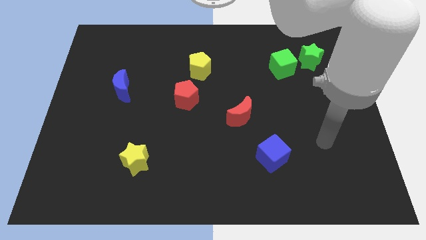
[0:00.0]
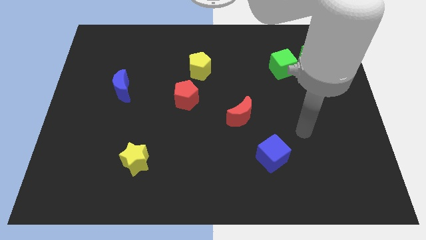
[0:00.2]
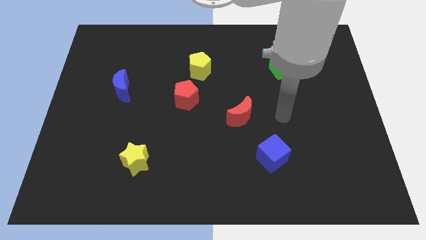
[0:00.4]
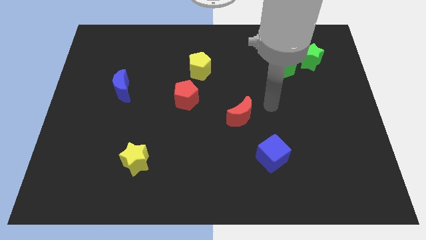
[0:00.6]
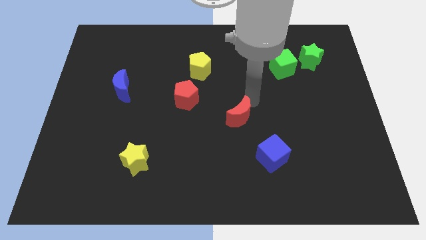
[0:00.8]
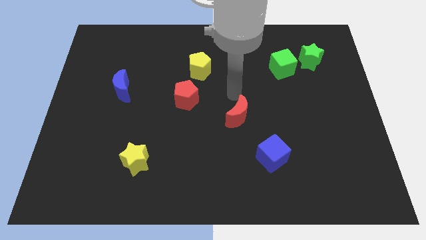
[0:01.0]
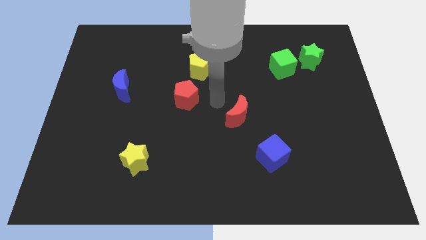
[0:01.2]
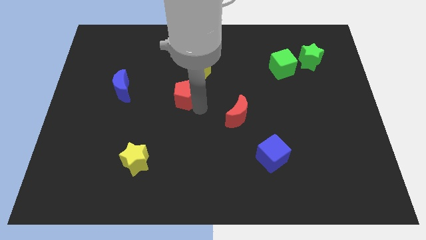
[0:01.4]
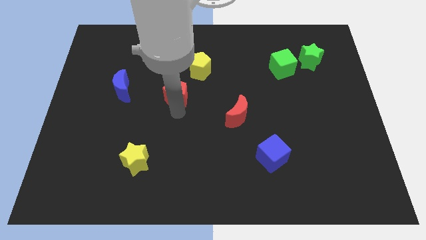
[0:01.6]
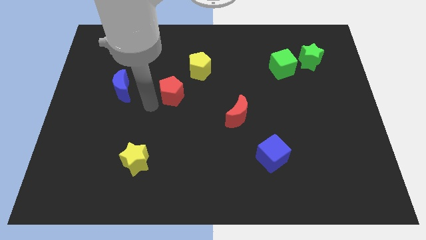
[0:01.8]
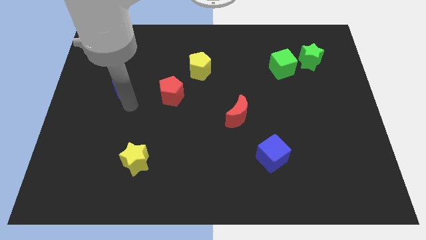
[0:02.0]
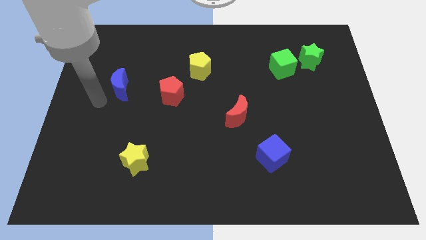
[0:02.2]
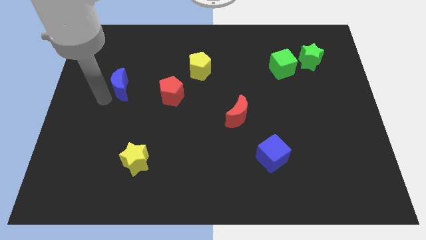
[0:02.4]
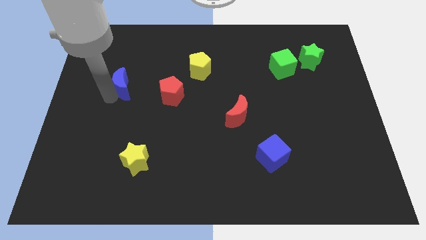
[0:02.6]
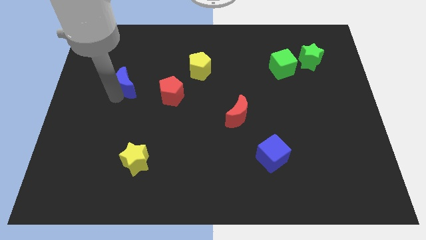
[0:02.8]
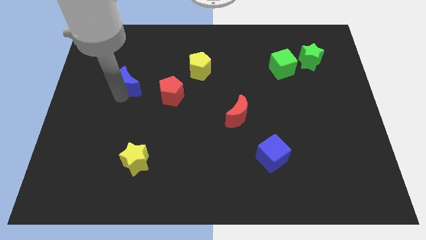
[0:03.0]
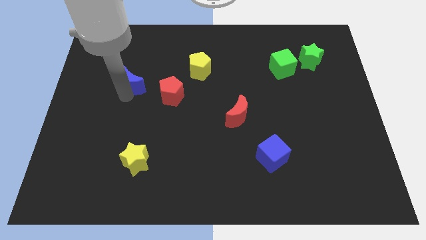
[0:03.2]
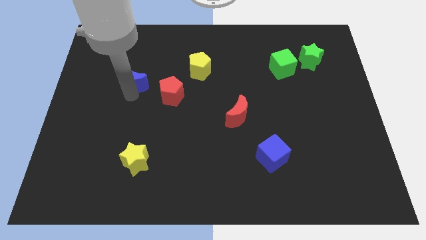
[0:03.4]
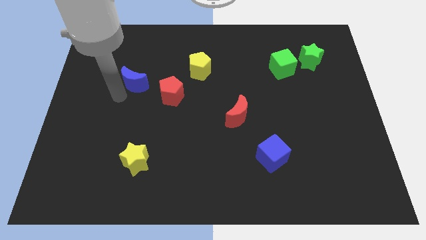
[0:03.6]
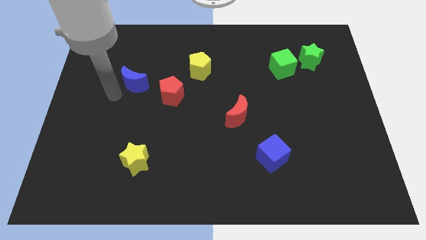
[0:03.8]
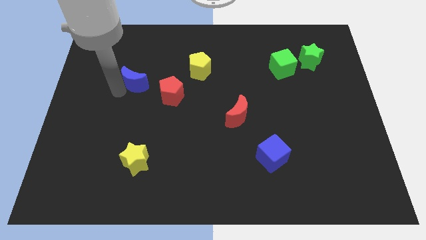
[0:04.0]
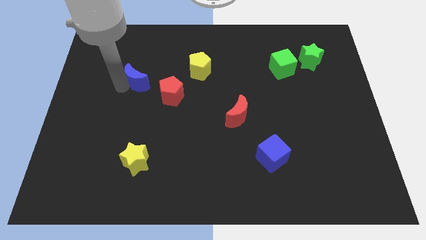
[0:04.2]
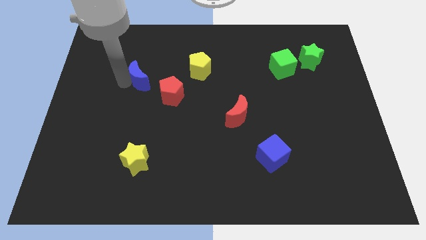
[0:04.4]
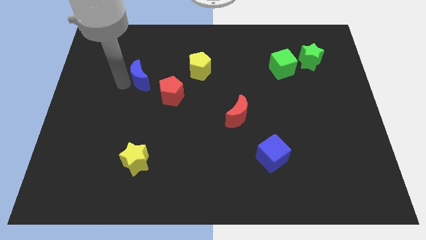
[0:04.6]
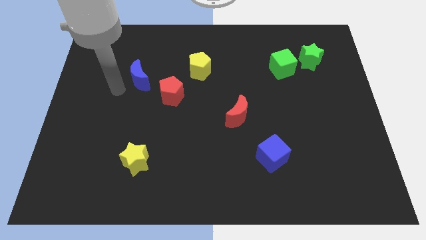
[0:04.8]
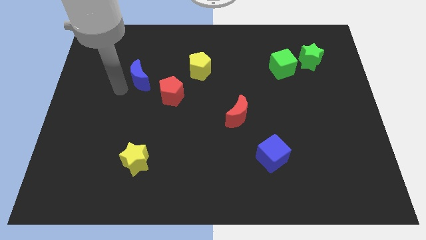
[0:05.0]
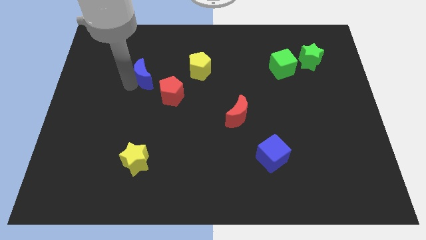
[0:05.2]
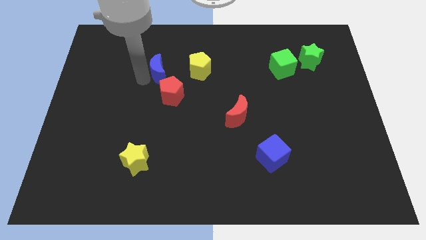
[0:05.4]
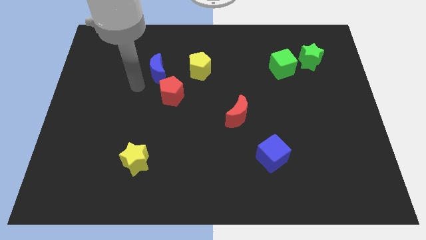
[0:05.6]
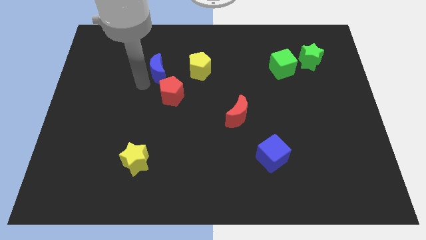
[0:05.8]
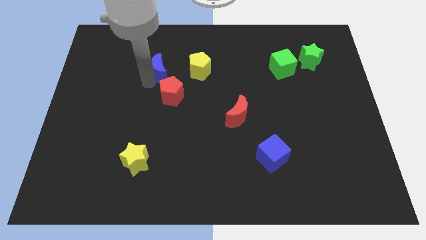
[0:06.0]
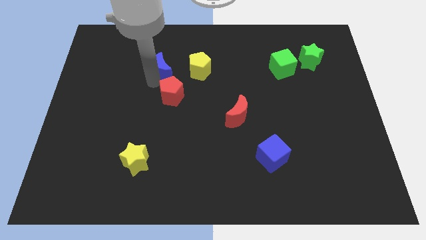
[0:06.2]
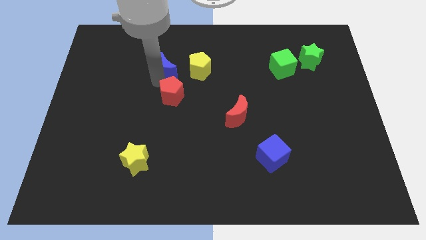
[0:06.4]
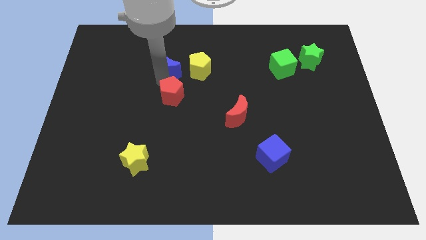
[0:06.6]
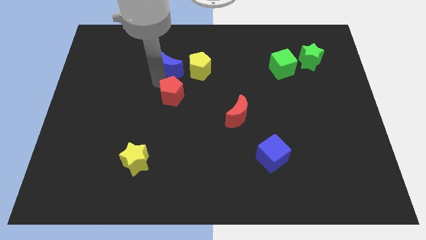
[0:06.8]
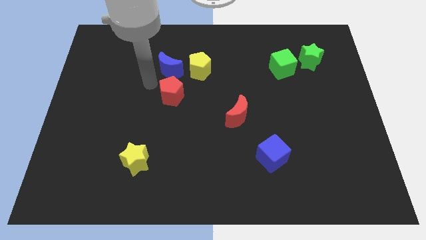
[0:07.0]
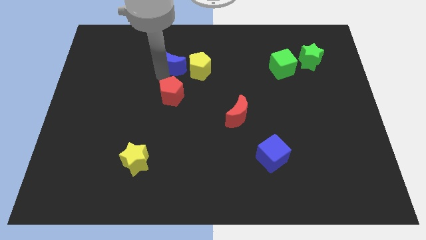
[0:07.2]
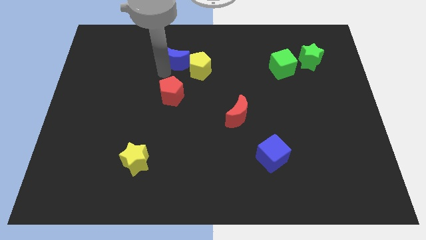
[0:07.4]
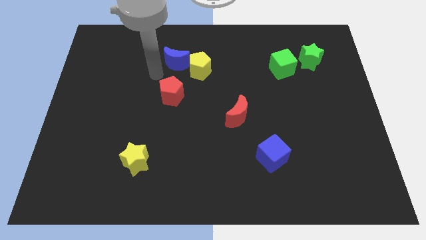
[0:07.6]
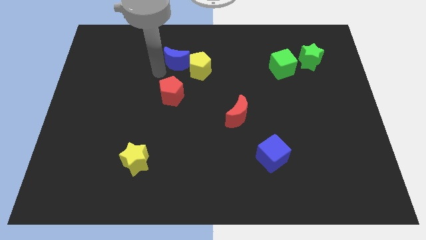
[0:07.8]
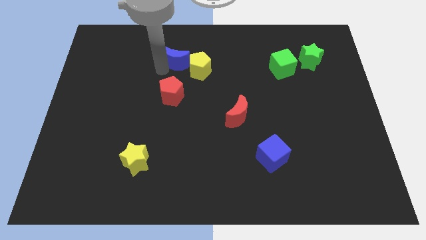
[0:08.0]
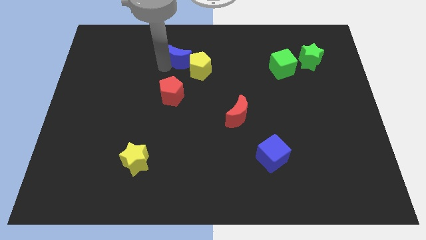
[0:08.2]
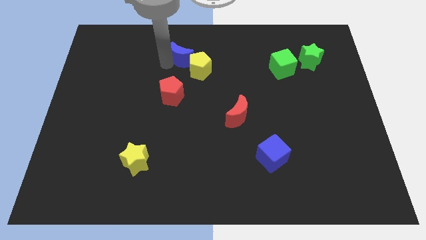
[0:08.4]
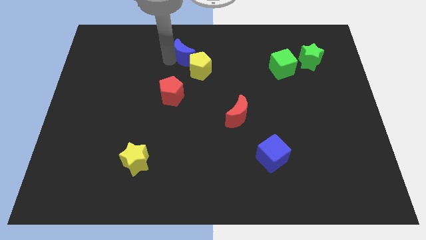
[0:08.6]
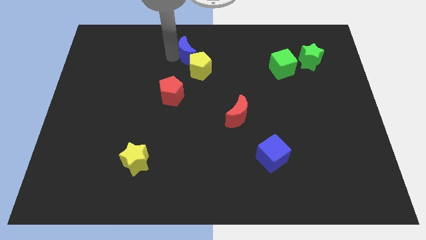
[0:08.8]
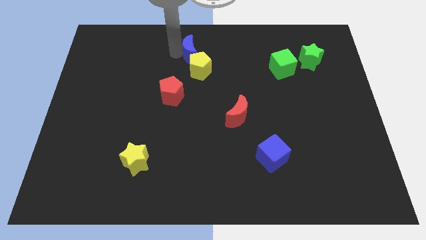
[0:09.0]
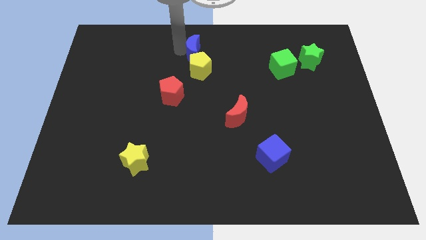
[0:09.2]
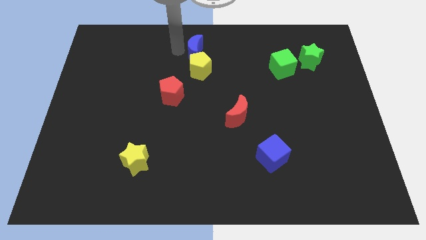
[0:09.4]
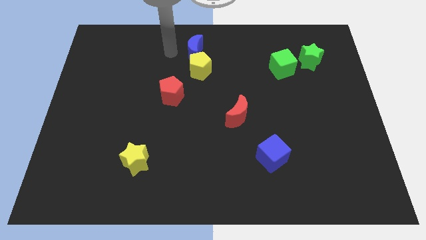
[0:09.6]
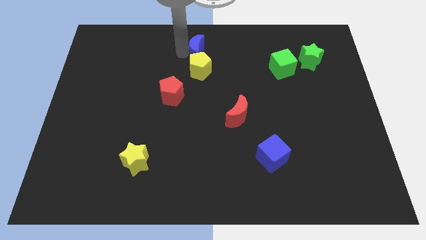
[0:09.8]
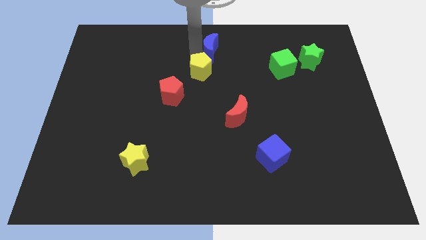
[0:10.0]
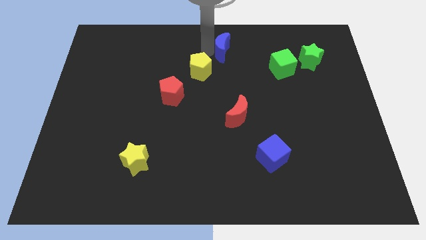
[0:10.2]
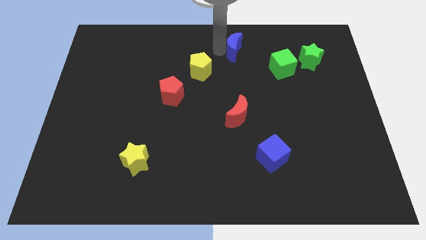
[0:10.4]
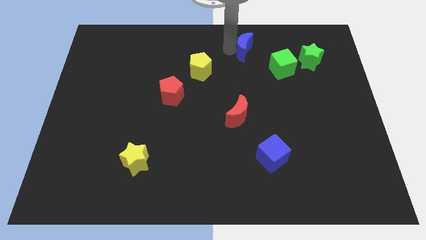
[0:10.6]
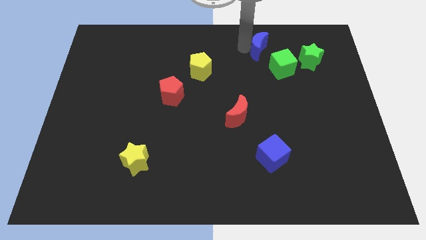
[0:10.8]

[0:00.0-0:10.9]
move the blue moon just left of the green star

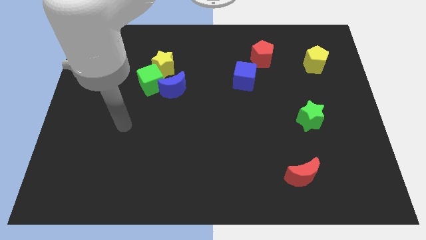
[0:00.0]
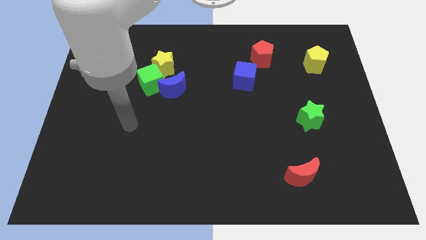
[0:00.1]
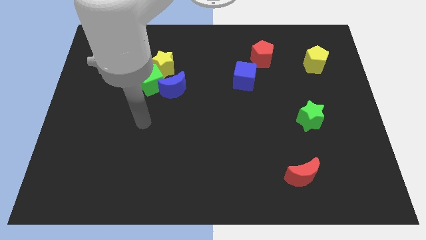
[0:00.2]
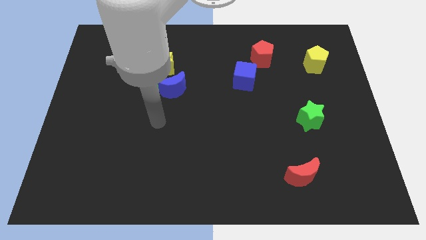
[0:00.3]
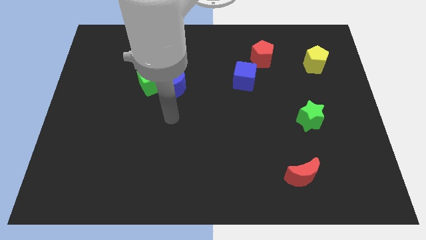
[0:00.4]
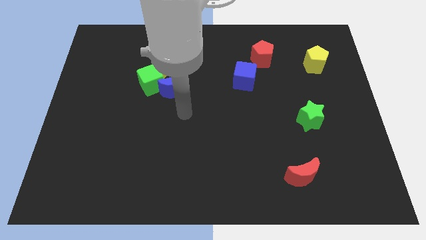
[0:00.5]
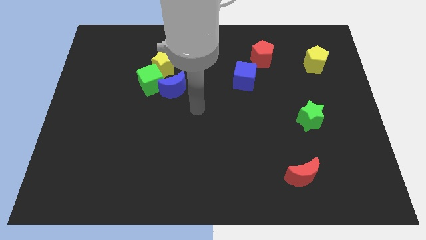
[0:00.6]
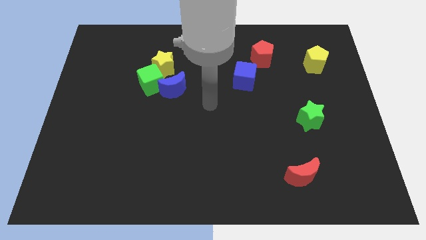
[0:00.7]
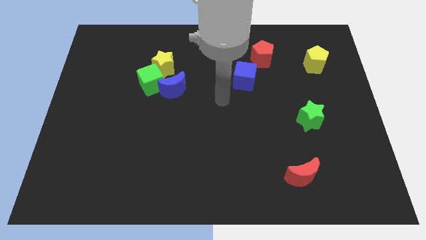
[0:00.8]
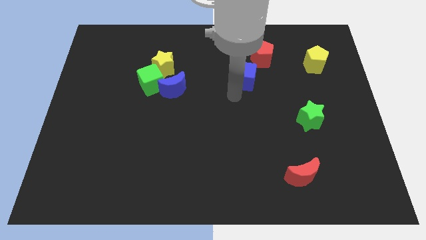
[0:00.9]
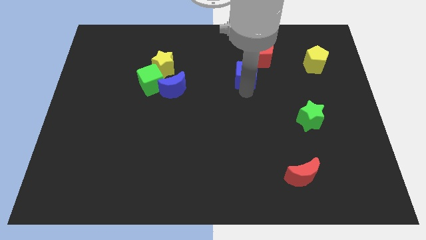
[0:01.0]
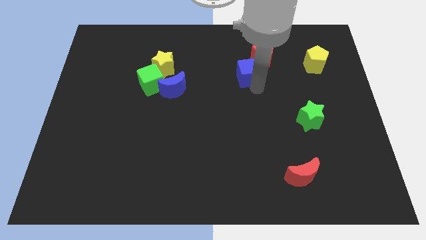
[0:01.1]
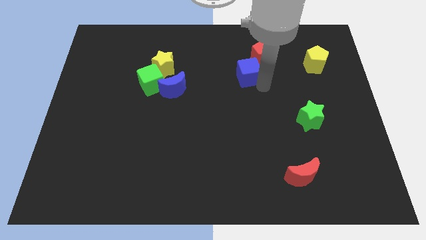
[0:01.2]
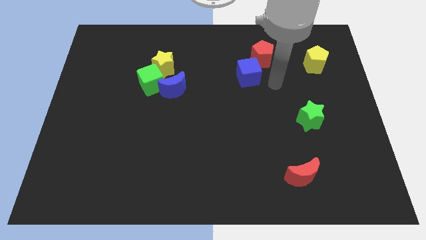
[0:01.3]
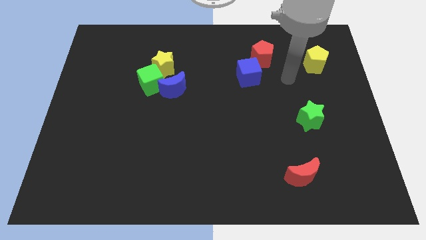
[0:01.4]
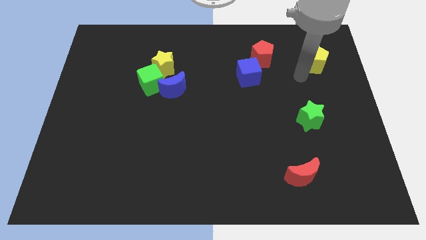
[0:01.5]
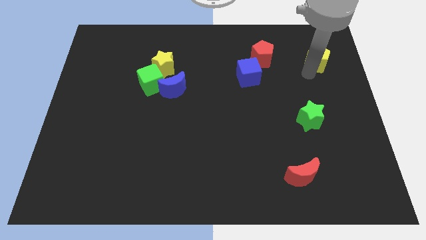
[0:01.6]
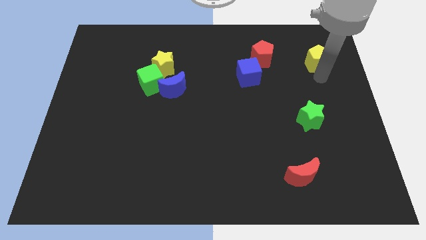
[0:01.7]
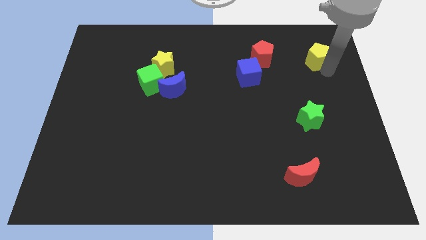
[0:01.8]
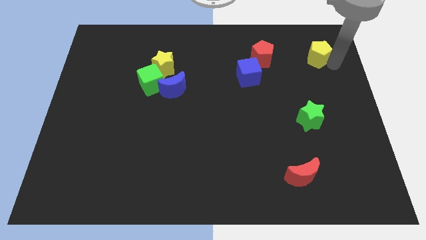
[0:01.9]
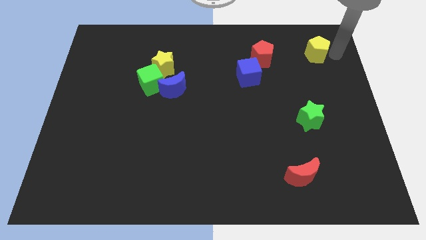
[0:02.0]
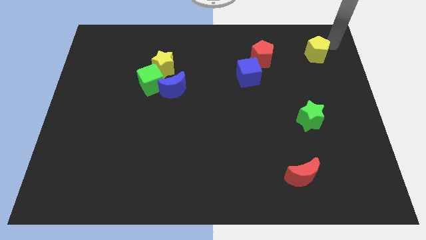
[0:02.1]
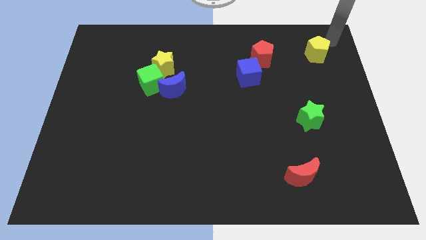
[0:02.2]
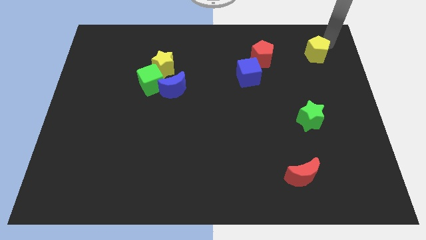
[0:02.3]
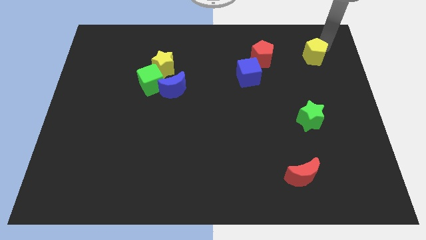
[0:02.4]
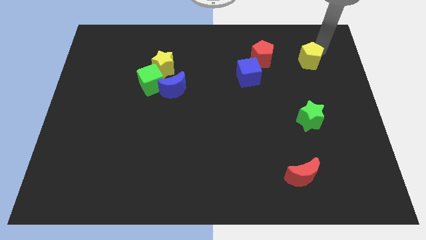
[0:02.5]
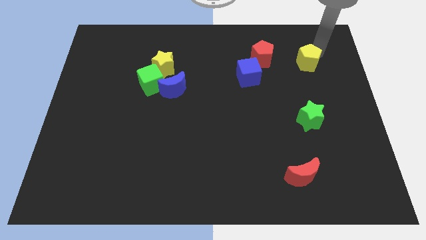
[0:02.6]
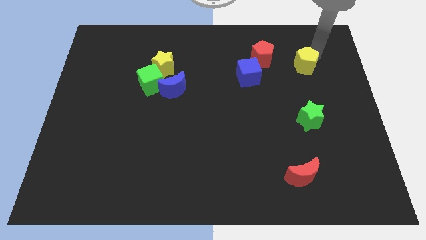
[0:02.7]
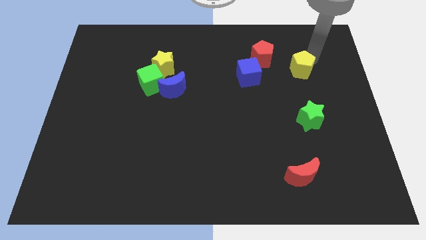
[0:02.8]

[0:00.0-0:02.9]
push the yellow pentagon diagonally down and to the right of the red pentagon
